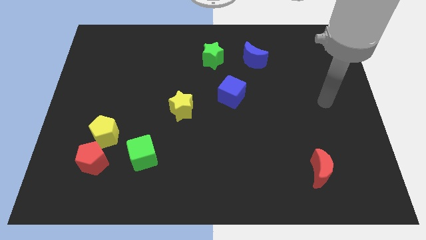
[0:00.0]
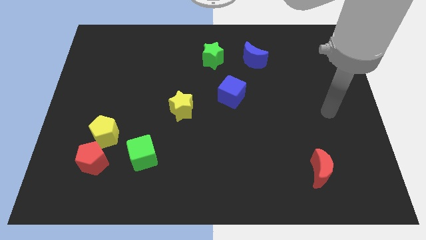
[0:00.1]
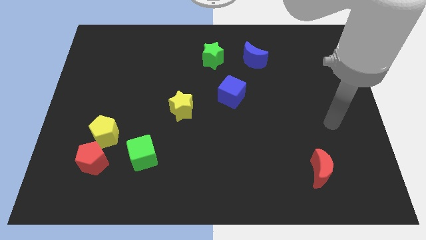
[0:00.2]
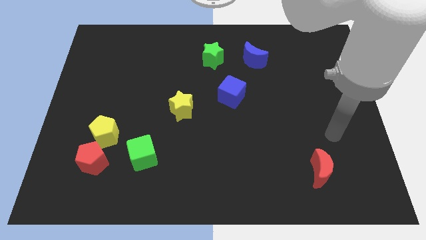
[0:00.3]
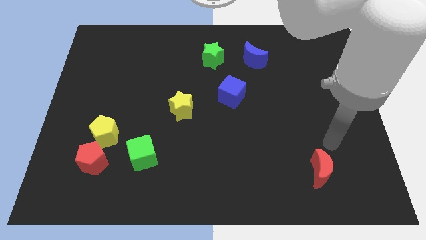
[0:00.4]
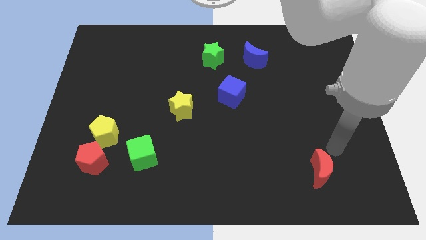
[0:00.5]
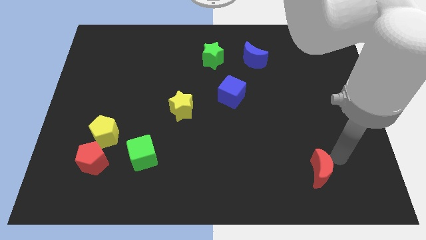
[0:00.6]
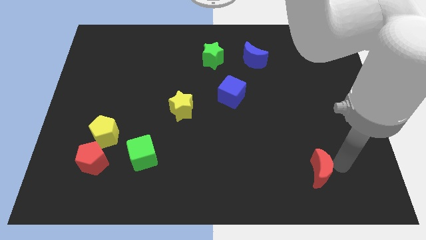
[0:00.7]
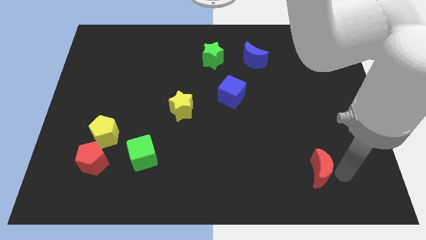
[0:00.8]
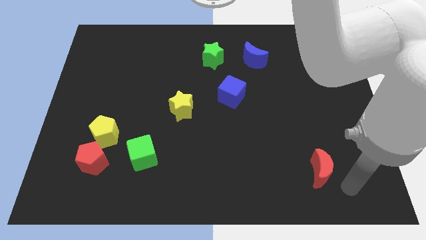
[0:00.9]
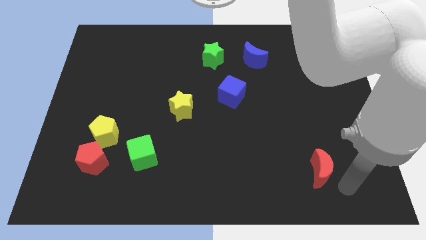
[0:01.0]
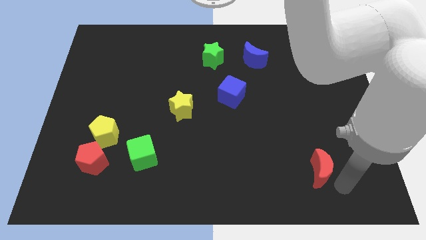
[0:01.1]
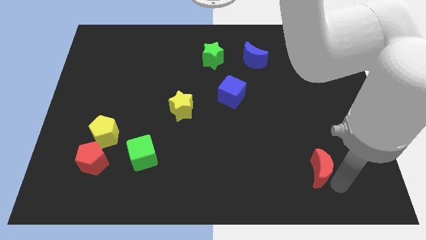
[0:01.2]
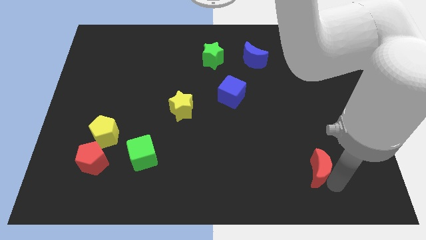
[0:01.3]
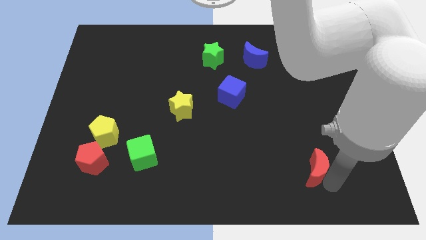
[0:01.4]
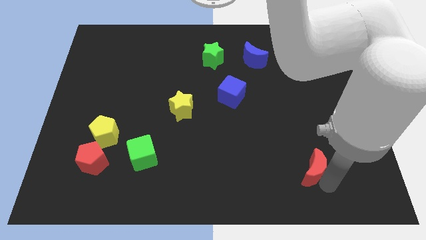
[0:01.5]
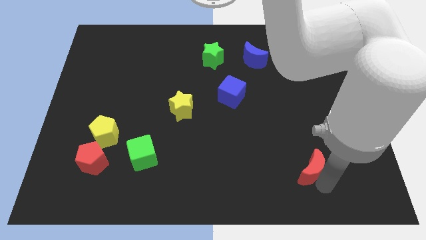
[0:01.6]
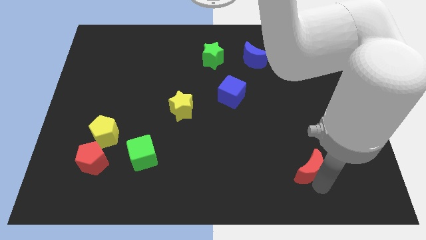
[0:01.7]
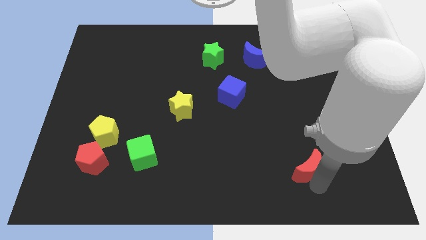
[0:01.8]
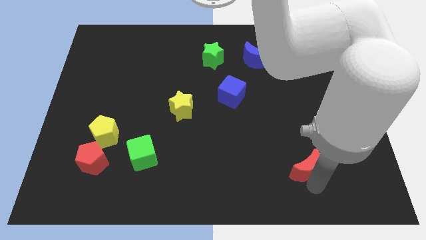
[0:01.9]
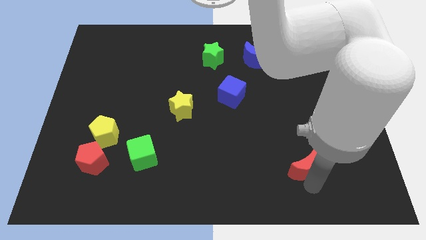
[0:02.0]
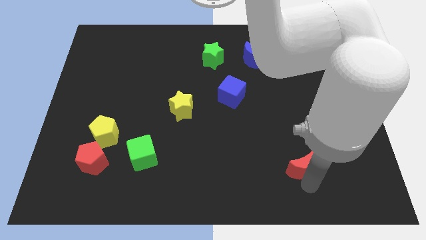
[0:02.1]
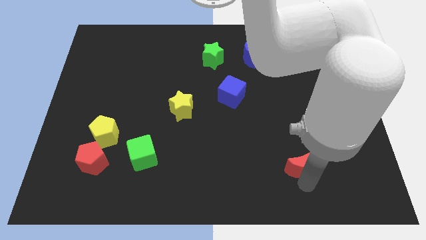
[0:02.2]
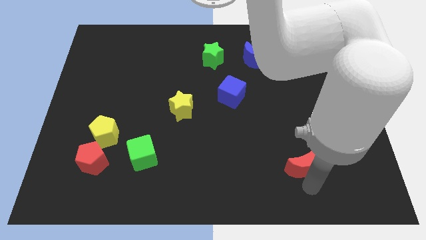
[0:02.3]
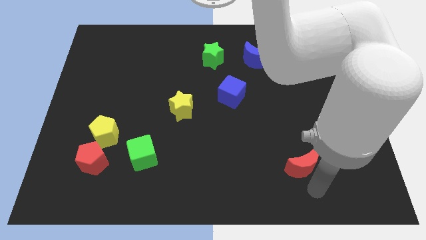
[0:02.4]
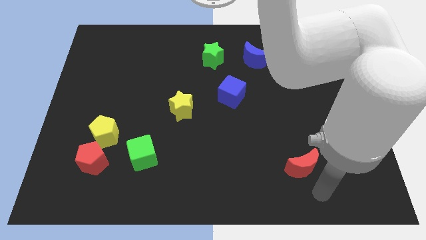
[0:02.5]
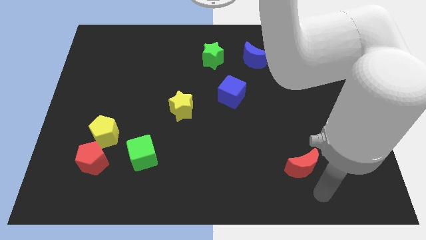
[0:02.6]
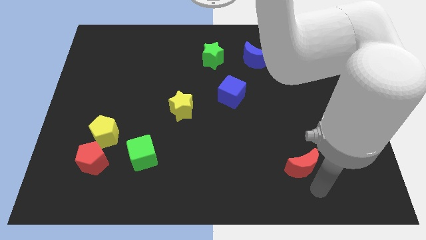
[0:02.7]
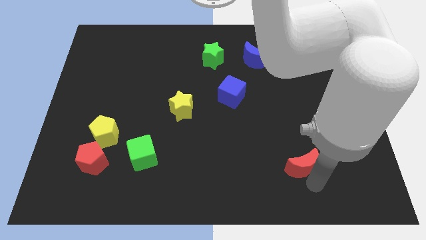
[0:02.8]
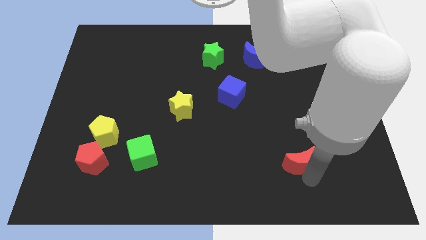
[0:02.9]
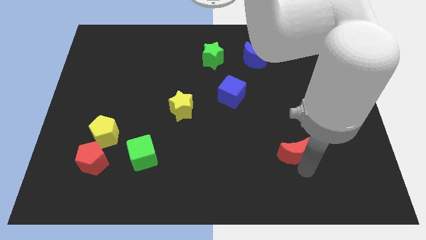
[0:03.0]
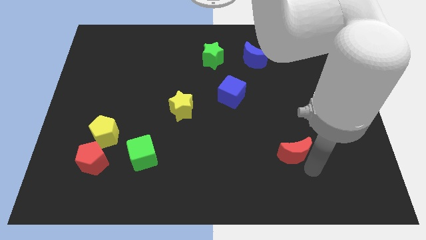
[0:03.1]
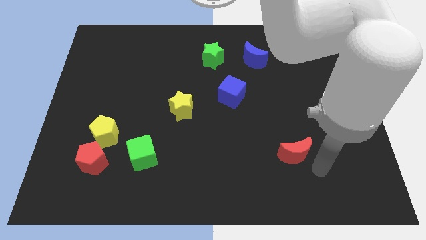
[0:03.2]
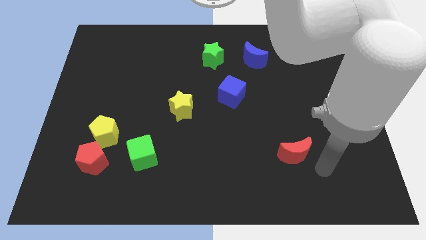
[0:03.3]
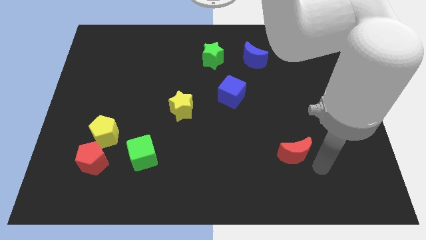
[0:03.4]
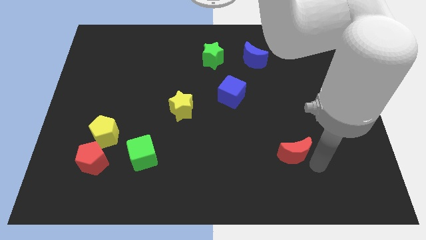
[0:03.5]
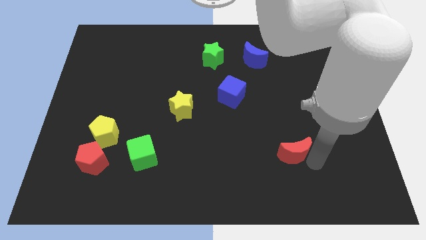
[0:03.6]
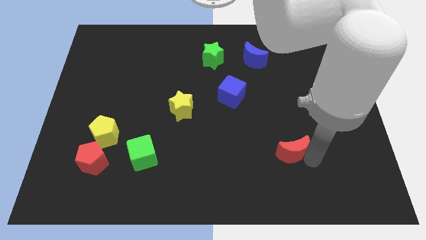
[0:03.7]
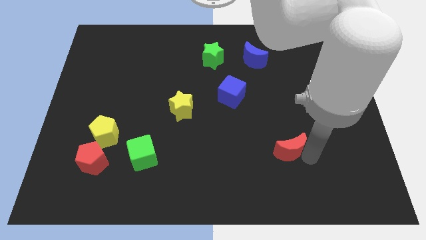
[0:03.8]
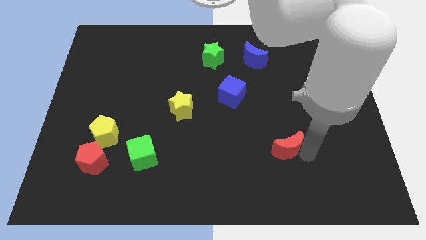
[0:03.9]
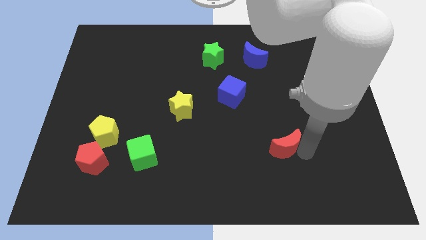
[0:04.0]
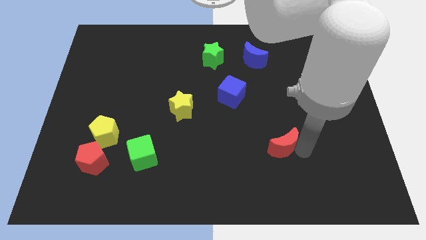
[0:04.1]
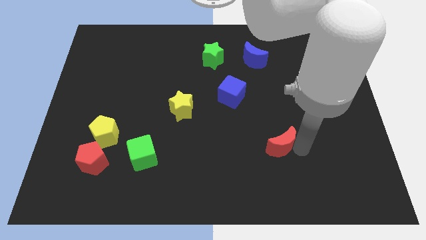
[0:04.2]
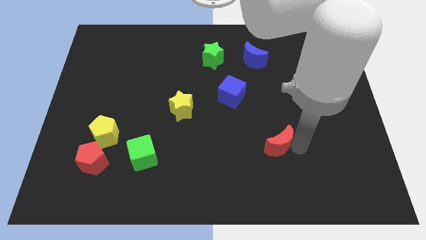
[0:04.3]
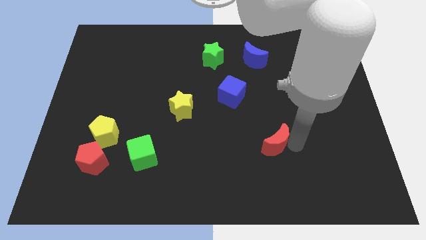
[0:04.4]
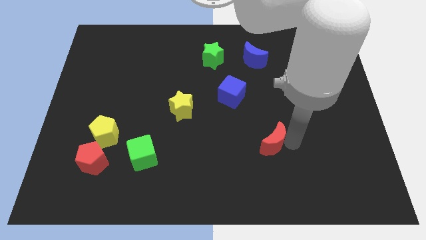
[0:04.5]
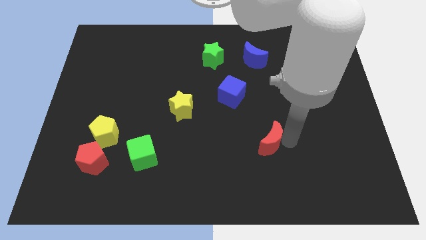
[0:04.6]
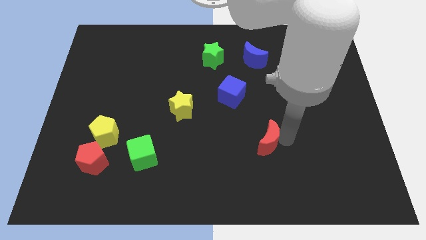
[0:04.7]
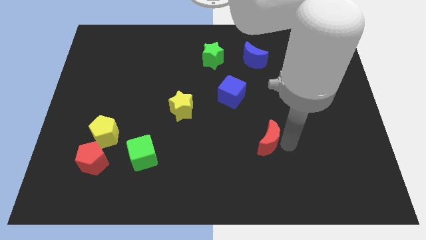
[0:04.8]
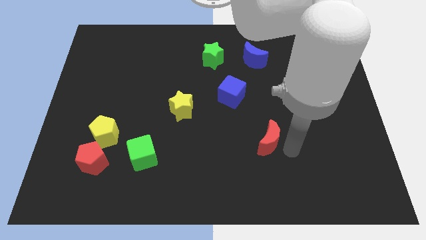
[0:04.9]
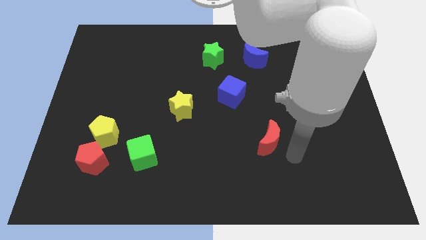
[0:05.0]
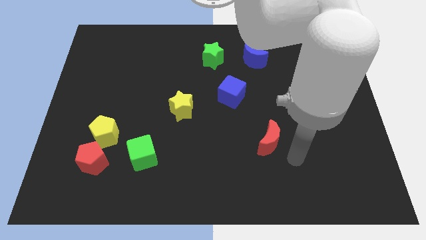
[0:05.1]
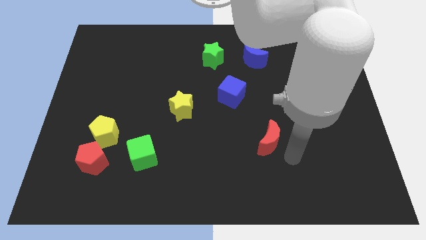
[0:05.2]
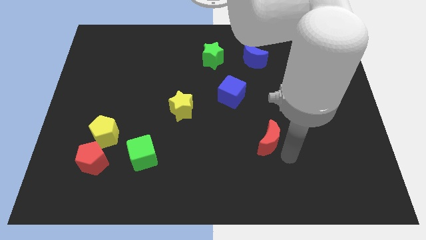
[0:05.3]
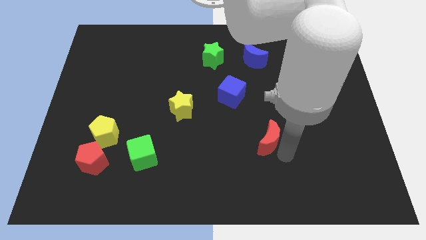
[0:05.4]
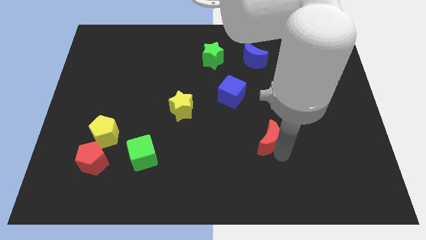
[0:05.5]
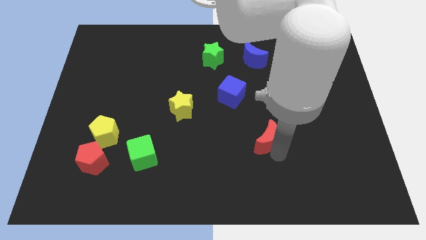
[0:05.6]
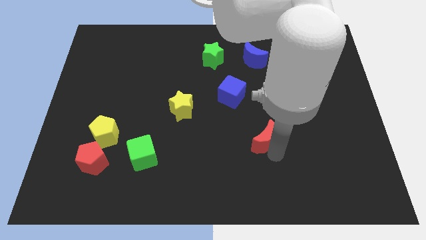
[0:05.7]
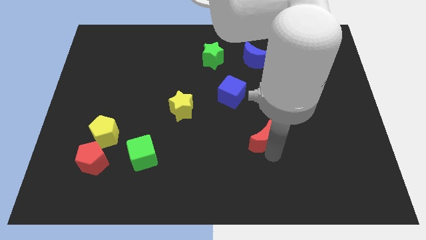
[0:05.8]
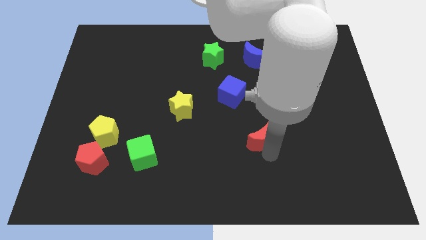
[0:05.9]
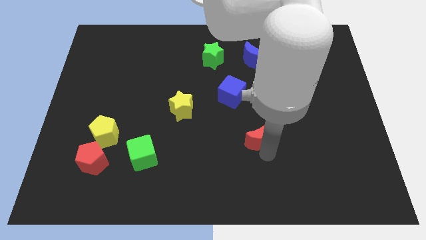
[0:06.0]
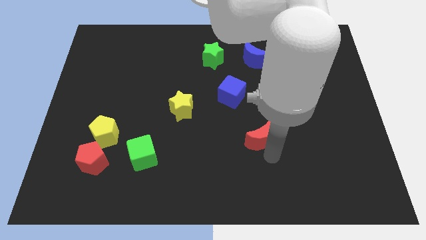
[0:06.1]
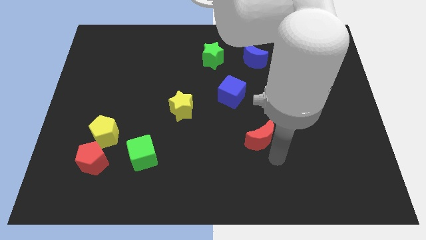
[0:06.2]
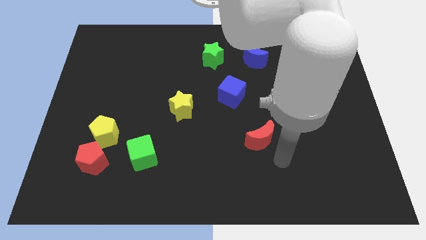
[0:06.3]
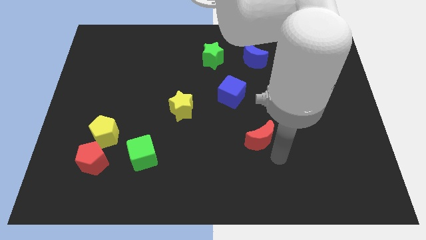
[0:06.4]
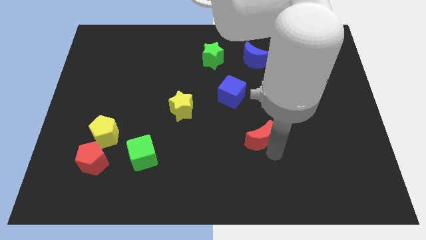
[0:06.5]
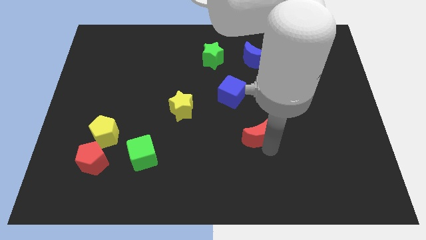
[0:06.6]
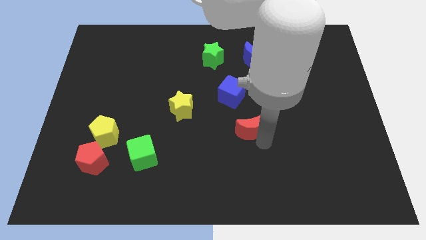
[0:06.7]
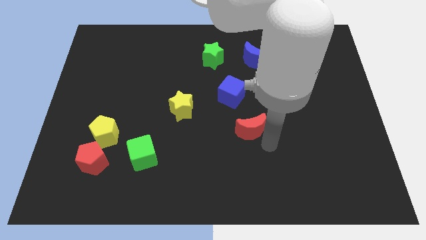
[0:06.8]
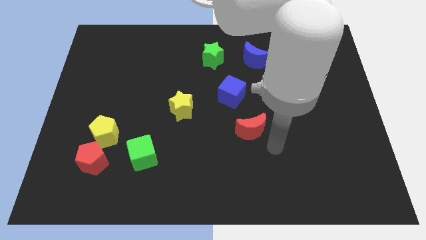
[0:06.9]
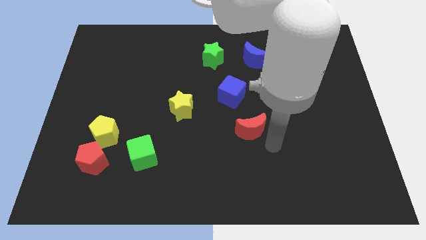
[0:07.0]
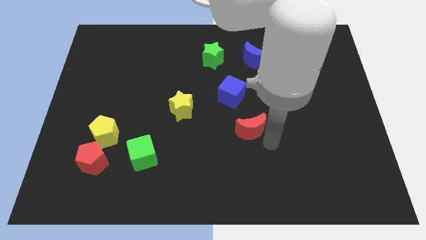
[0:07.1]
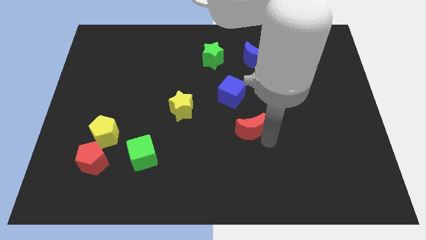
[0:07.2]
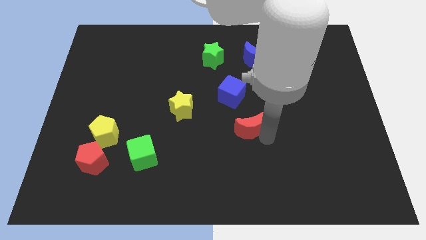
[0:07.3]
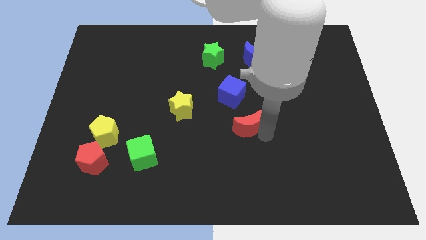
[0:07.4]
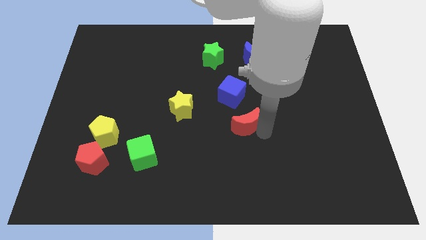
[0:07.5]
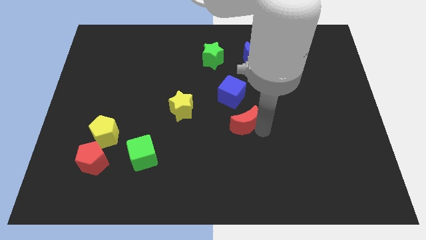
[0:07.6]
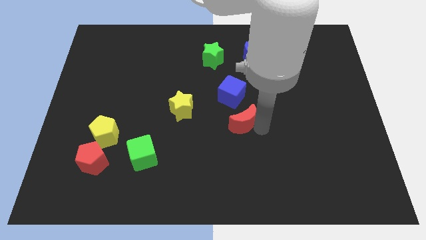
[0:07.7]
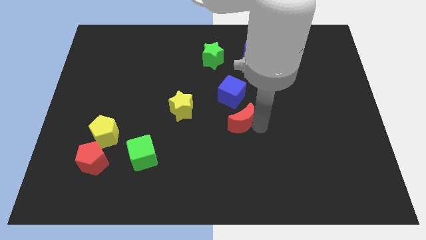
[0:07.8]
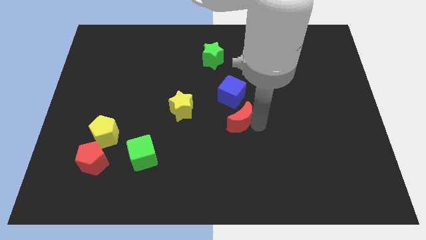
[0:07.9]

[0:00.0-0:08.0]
push the red moon upwards and left

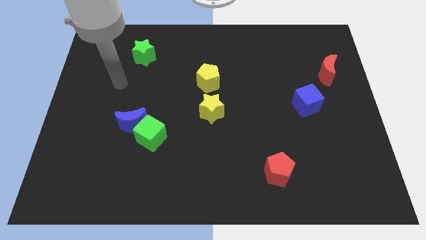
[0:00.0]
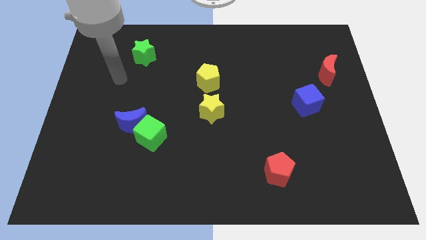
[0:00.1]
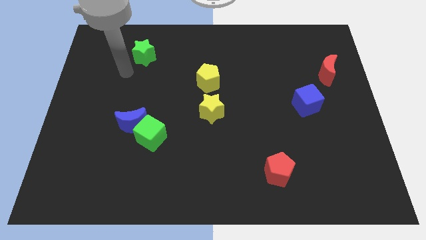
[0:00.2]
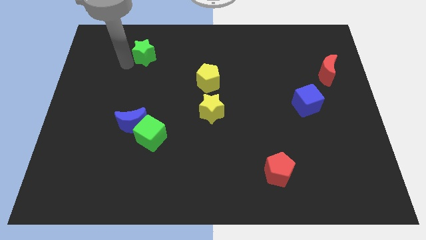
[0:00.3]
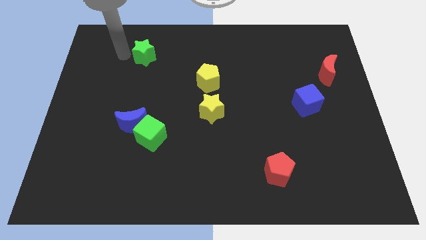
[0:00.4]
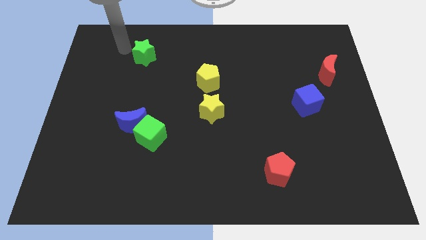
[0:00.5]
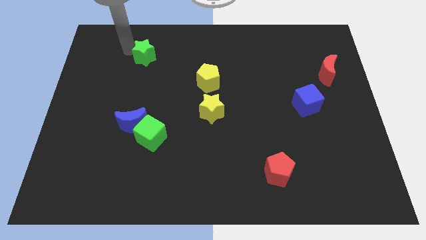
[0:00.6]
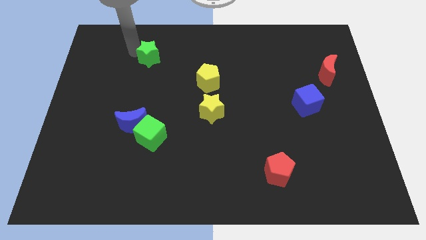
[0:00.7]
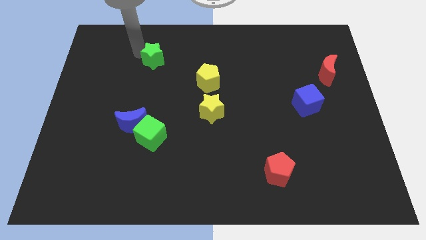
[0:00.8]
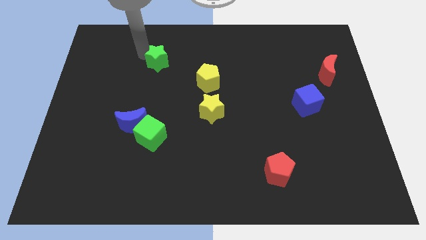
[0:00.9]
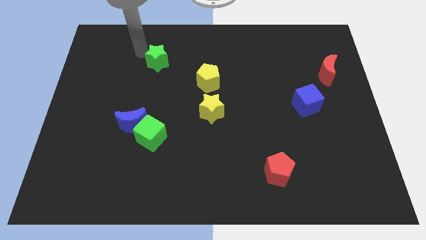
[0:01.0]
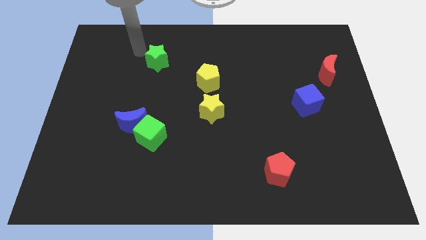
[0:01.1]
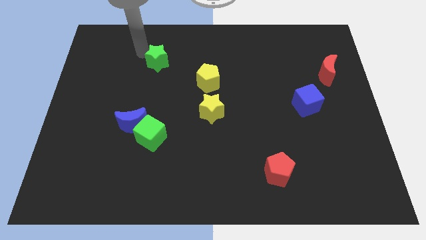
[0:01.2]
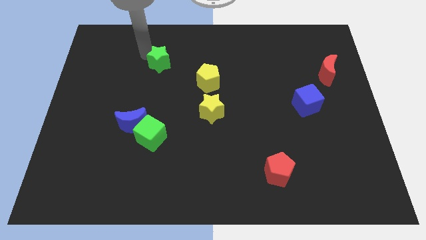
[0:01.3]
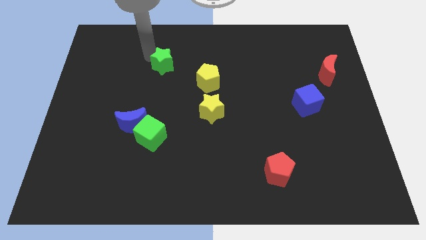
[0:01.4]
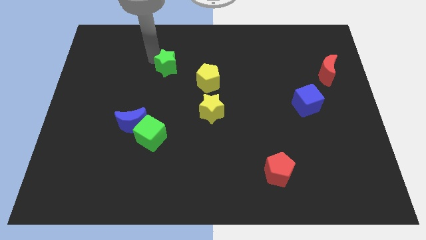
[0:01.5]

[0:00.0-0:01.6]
slightly slide the green star downwards and right
